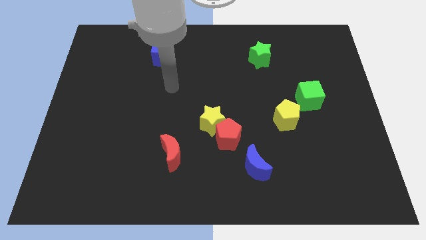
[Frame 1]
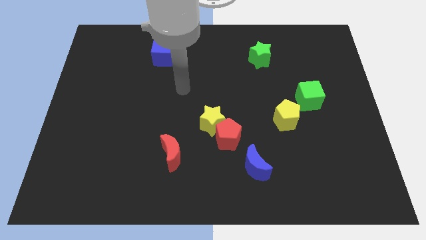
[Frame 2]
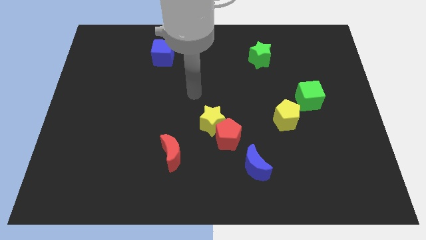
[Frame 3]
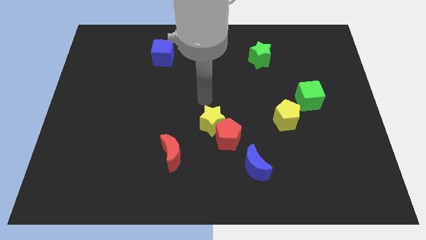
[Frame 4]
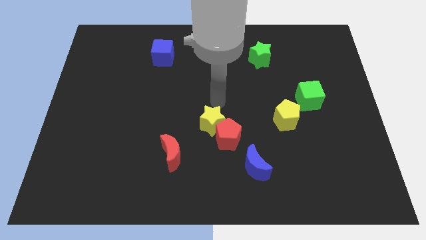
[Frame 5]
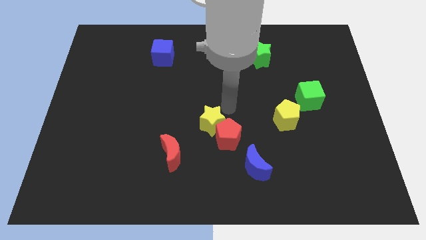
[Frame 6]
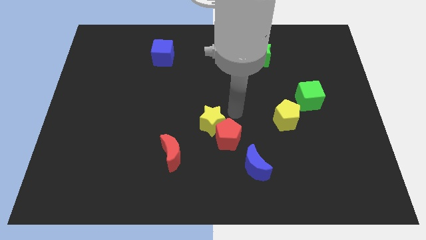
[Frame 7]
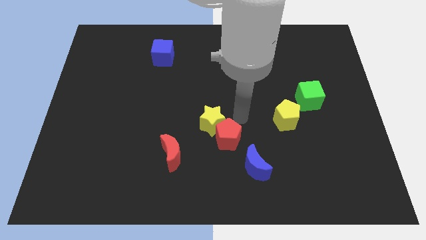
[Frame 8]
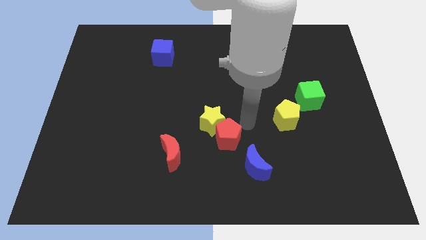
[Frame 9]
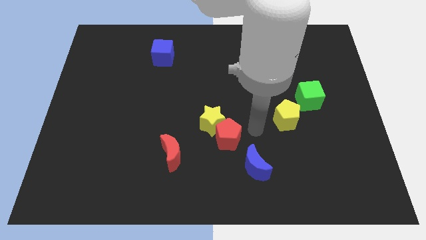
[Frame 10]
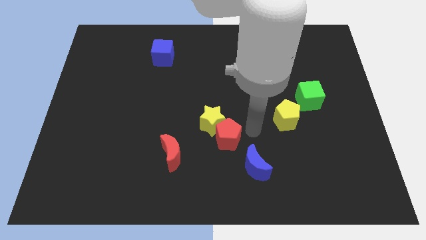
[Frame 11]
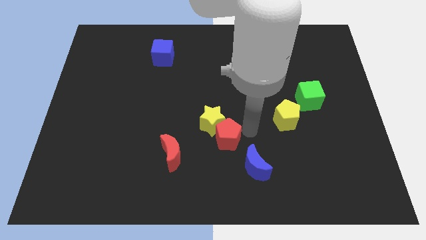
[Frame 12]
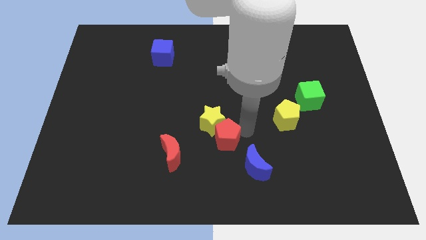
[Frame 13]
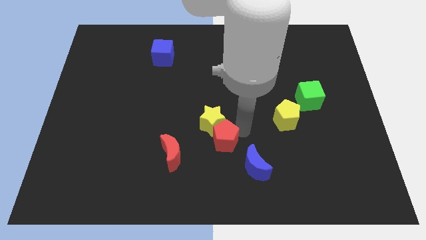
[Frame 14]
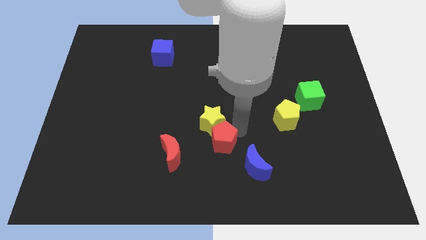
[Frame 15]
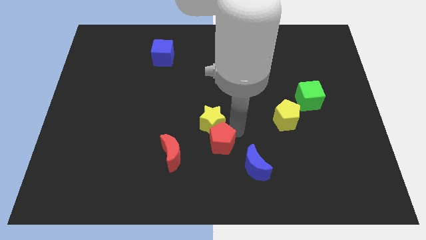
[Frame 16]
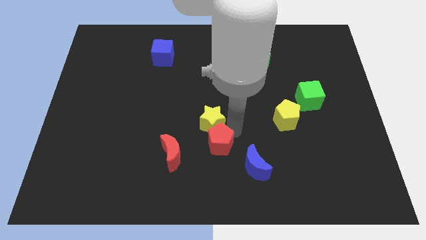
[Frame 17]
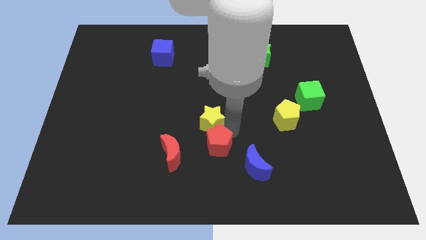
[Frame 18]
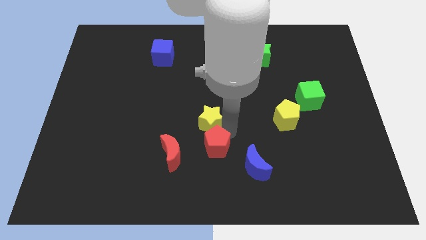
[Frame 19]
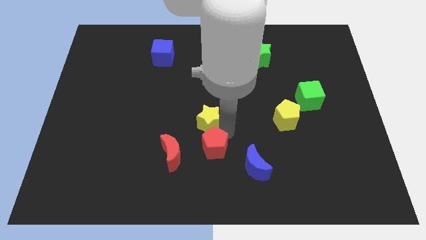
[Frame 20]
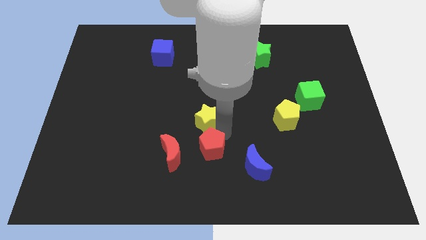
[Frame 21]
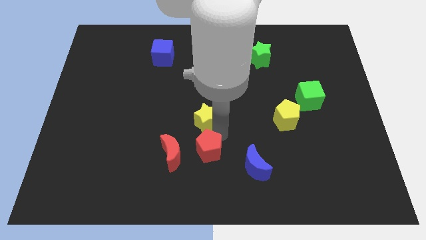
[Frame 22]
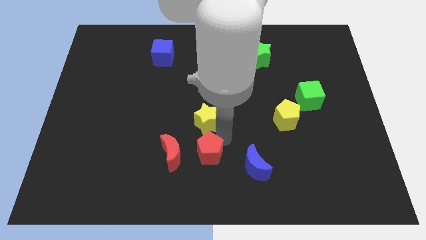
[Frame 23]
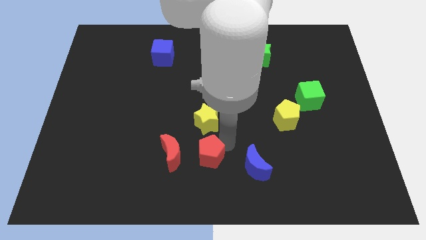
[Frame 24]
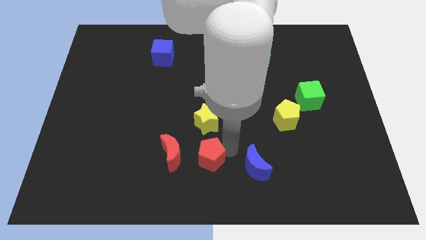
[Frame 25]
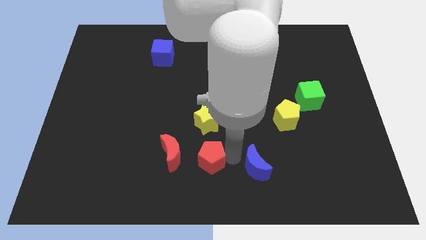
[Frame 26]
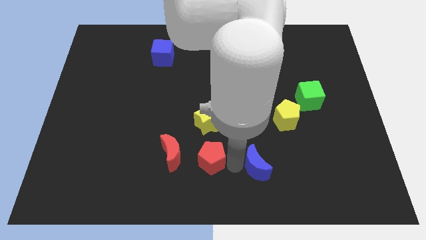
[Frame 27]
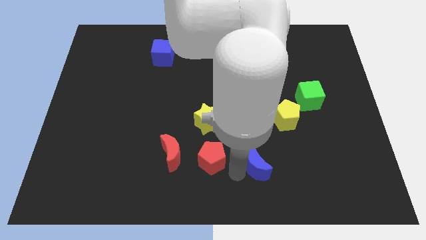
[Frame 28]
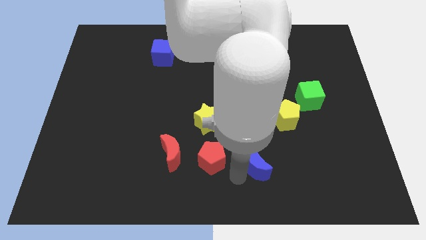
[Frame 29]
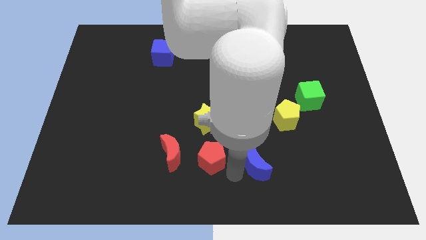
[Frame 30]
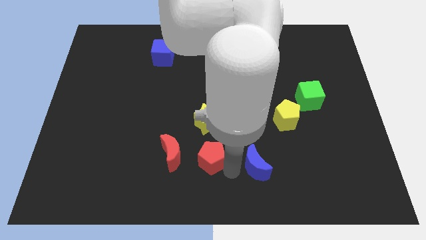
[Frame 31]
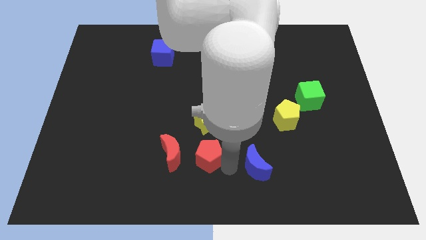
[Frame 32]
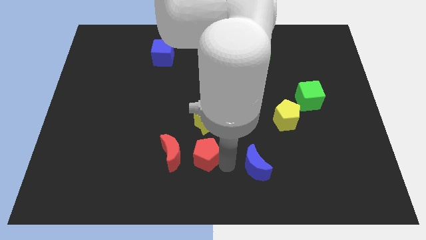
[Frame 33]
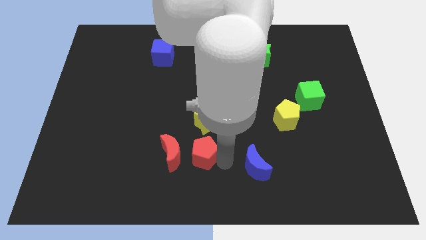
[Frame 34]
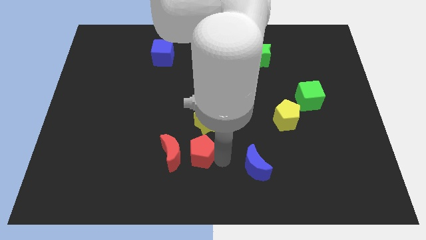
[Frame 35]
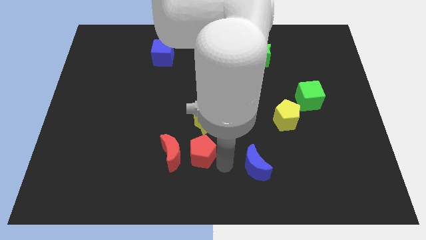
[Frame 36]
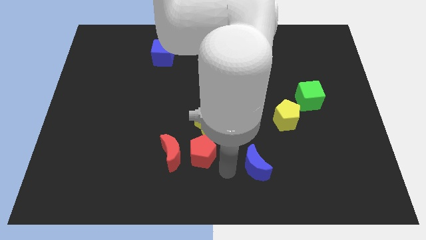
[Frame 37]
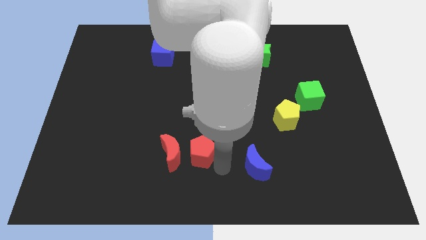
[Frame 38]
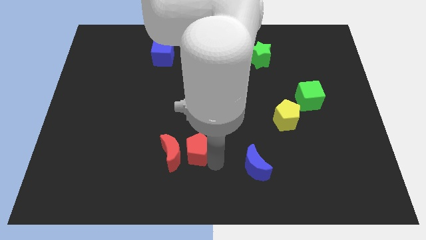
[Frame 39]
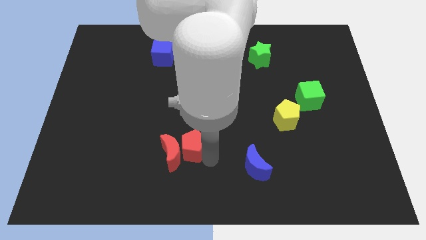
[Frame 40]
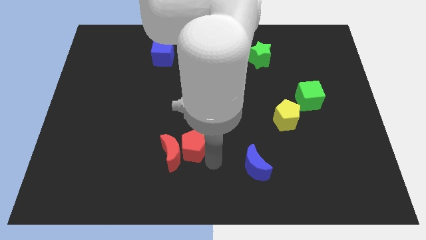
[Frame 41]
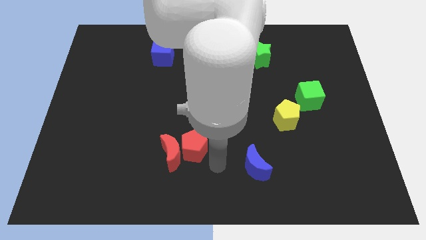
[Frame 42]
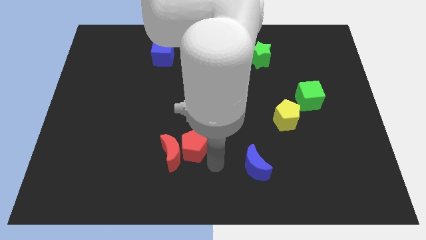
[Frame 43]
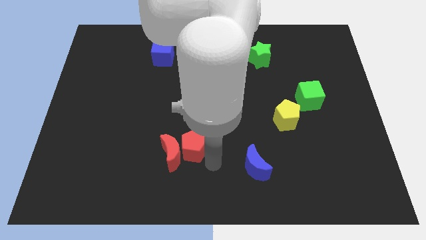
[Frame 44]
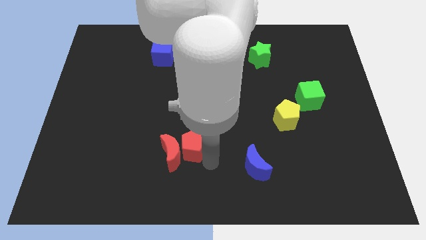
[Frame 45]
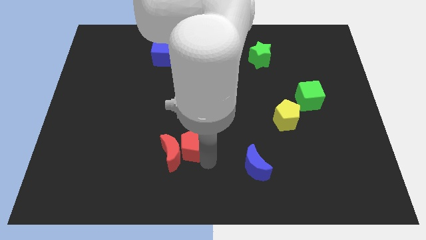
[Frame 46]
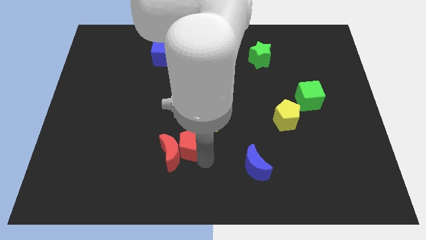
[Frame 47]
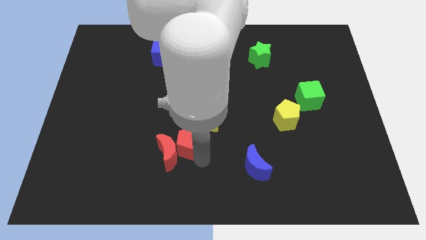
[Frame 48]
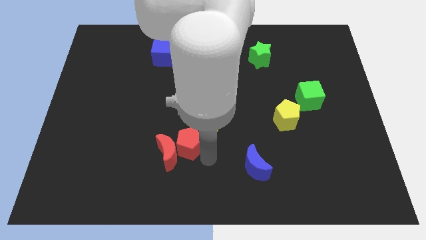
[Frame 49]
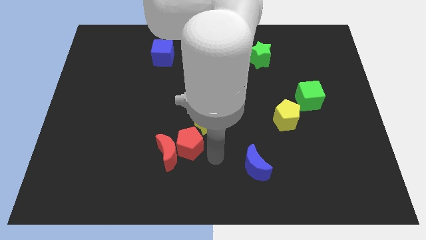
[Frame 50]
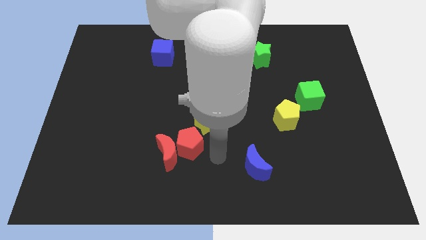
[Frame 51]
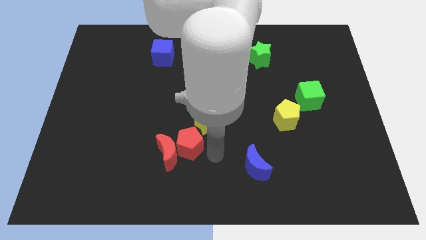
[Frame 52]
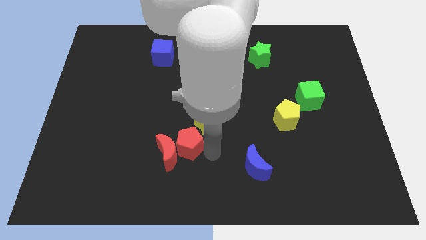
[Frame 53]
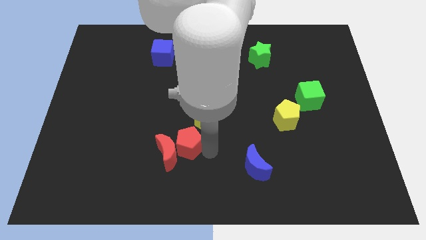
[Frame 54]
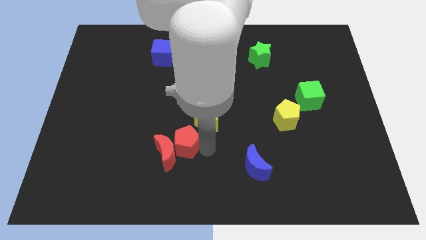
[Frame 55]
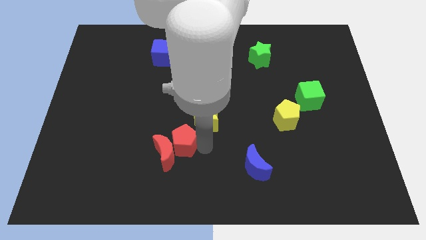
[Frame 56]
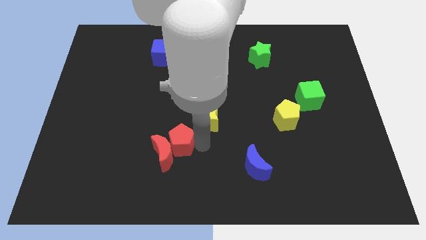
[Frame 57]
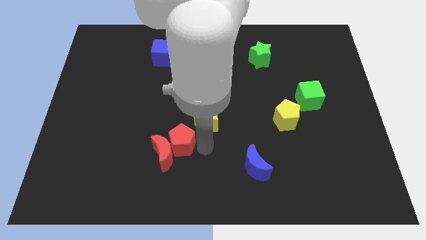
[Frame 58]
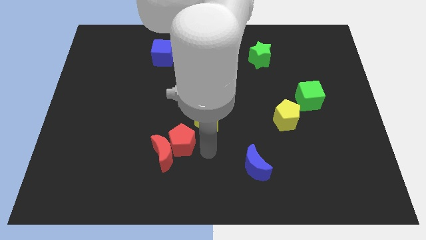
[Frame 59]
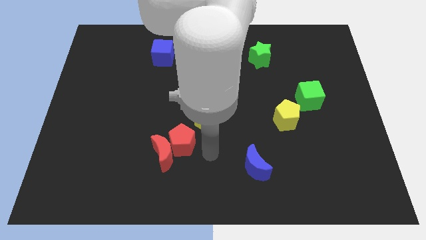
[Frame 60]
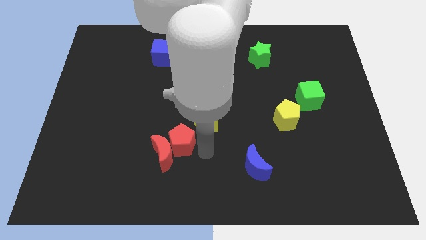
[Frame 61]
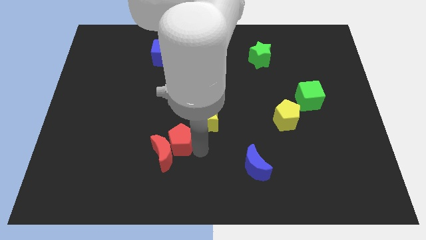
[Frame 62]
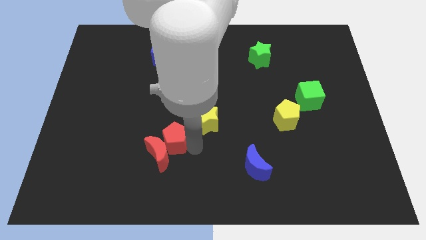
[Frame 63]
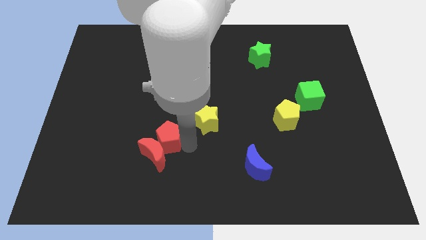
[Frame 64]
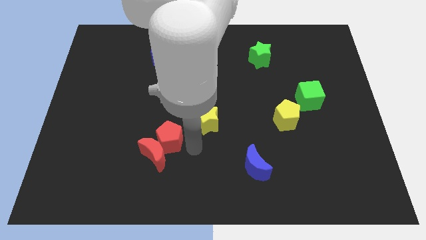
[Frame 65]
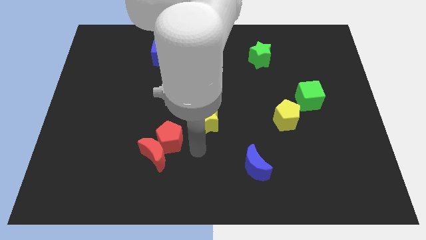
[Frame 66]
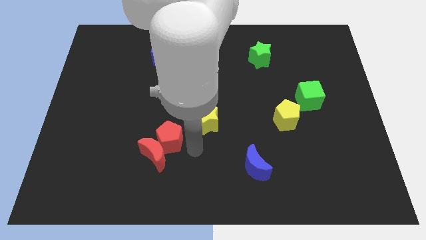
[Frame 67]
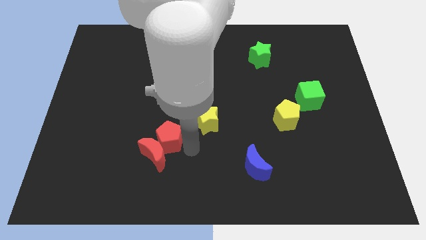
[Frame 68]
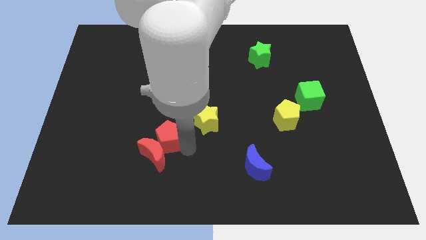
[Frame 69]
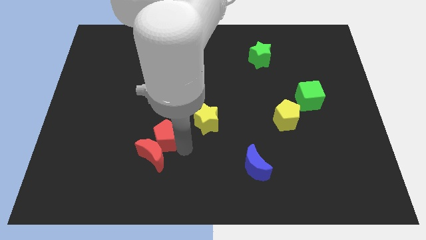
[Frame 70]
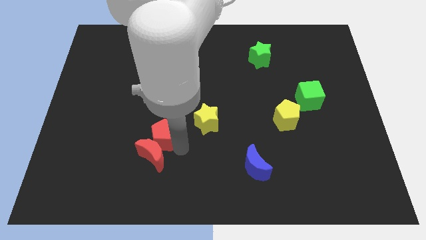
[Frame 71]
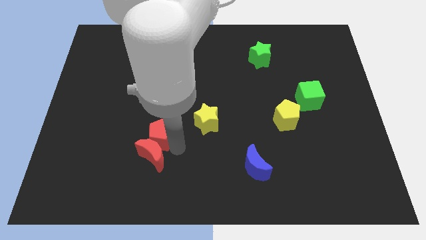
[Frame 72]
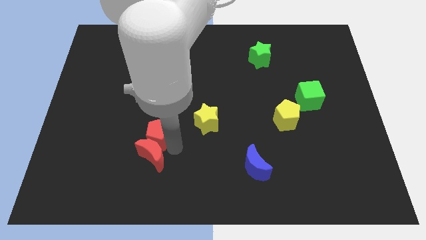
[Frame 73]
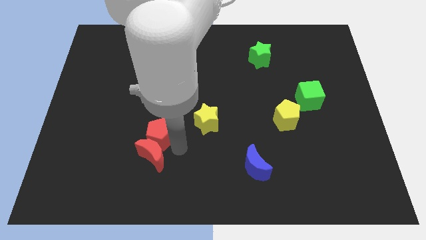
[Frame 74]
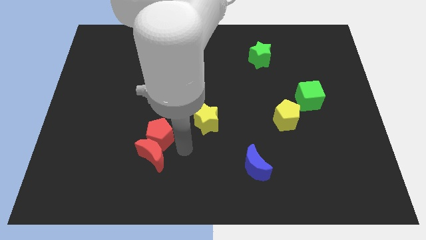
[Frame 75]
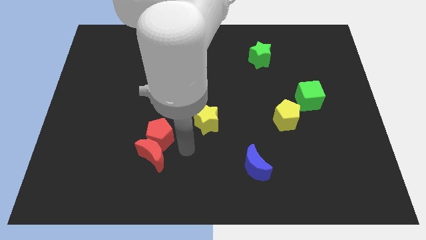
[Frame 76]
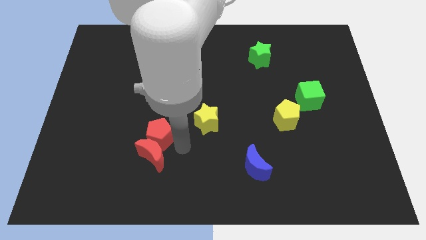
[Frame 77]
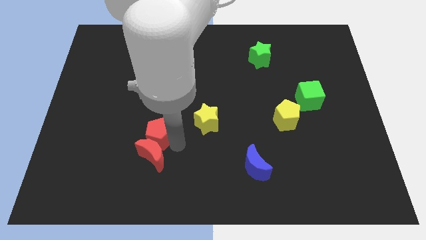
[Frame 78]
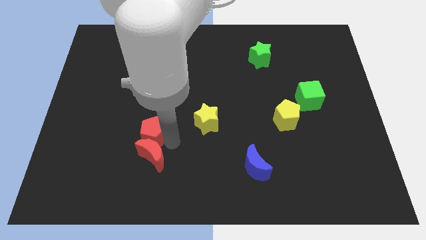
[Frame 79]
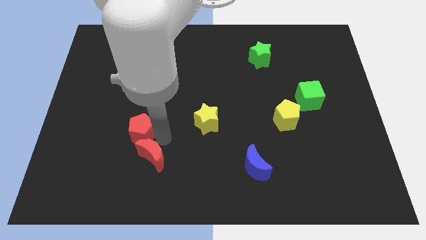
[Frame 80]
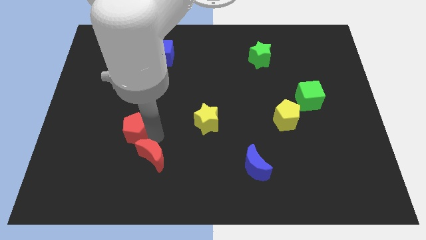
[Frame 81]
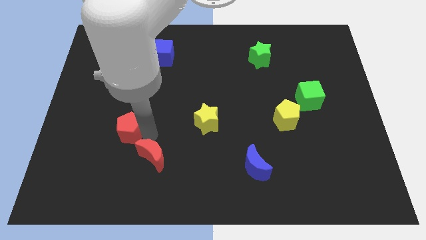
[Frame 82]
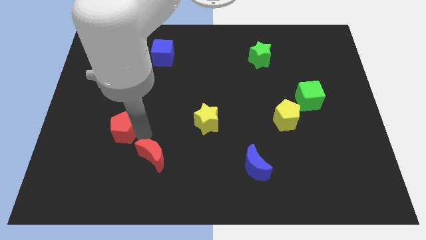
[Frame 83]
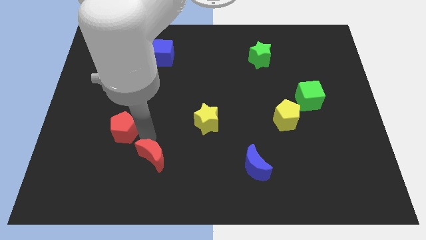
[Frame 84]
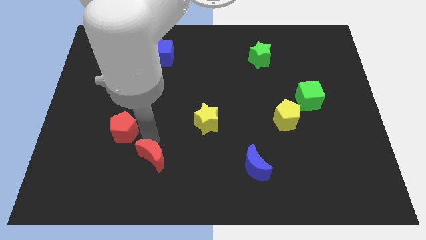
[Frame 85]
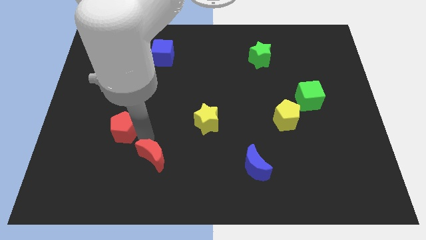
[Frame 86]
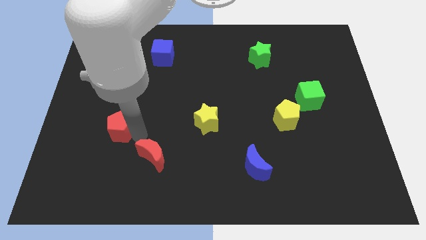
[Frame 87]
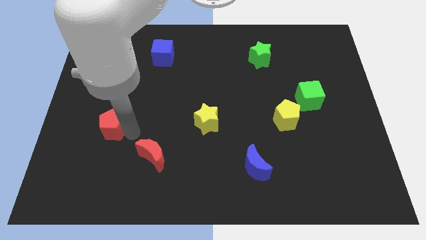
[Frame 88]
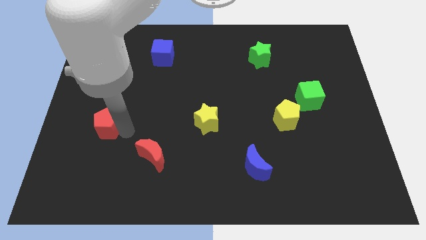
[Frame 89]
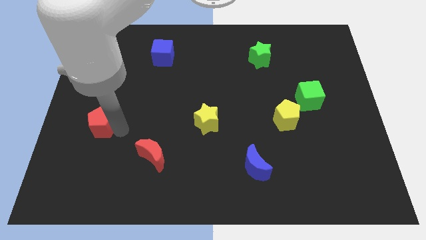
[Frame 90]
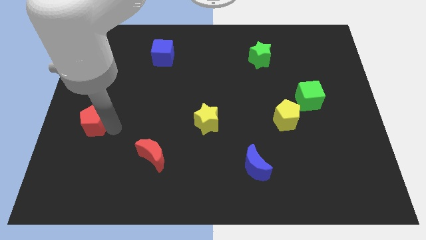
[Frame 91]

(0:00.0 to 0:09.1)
slide the red pentagon to the center left
